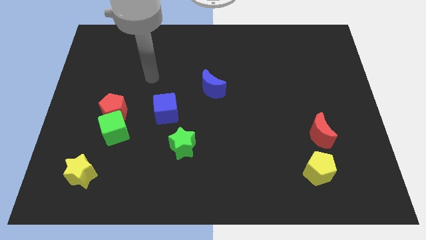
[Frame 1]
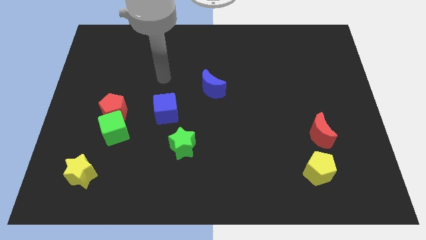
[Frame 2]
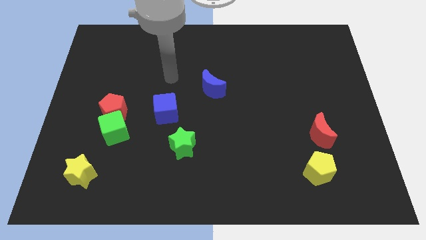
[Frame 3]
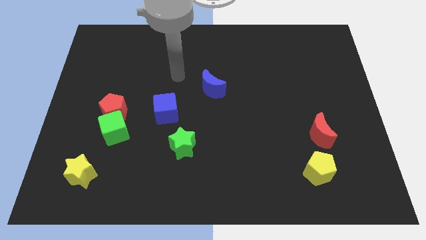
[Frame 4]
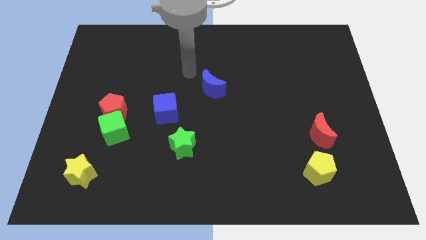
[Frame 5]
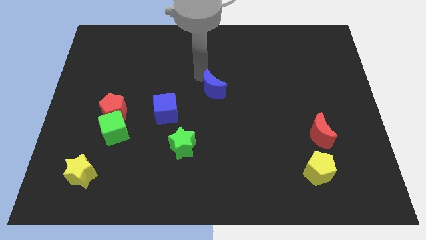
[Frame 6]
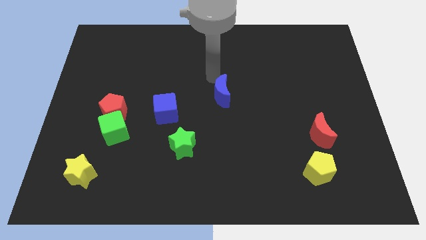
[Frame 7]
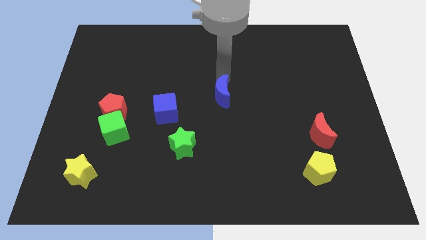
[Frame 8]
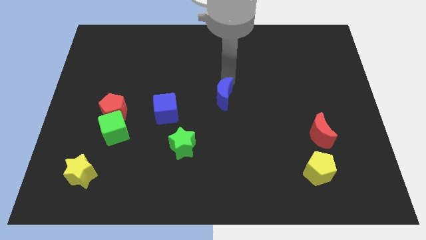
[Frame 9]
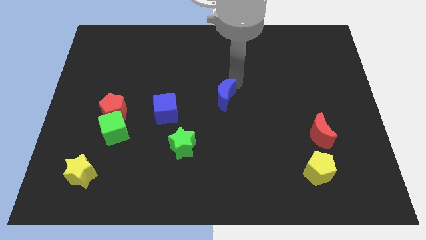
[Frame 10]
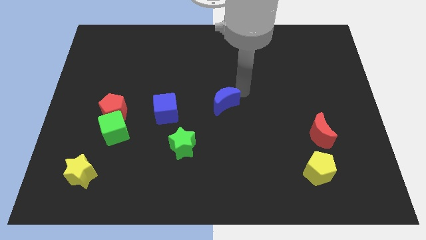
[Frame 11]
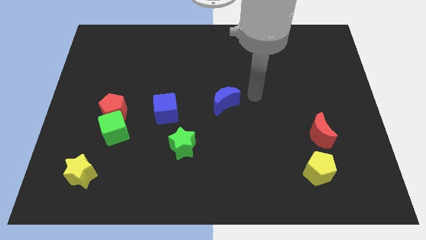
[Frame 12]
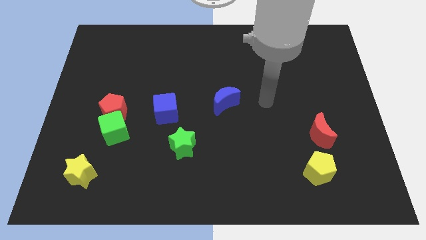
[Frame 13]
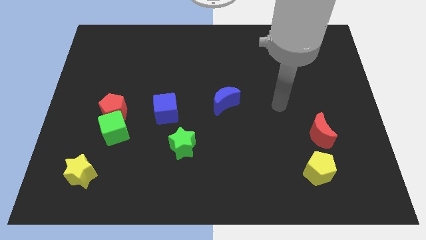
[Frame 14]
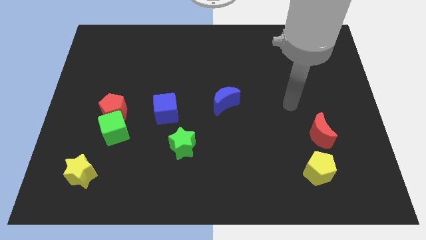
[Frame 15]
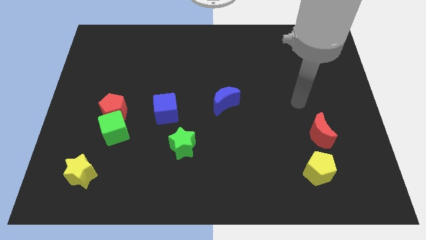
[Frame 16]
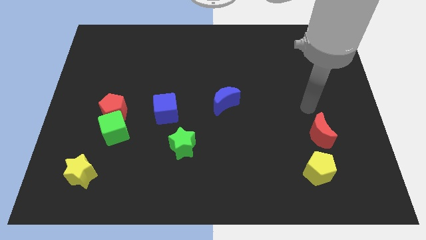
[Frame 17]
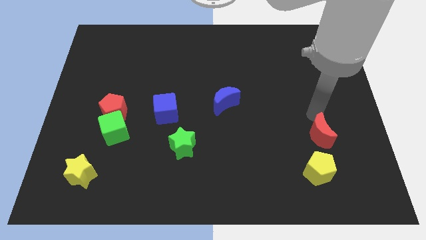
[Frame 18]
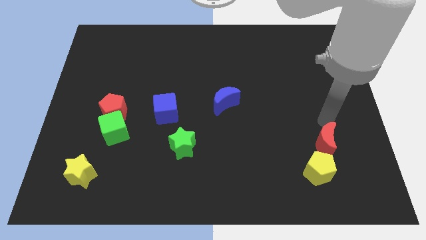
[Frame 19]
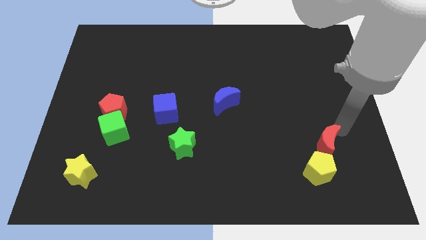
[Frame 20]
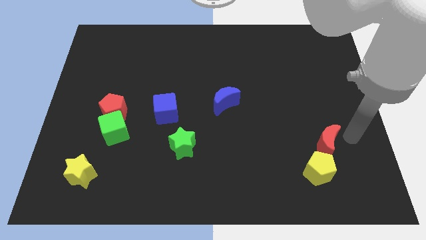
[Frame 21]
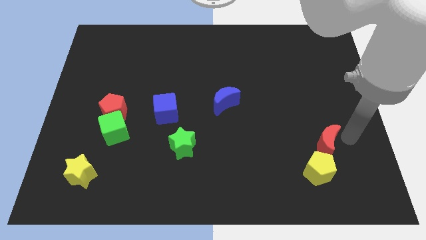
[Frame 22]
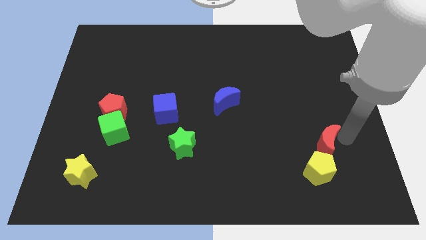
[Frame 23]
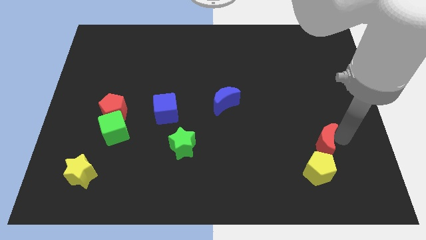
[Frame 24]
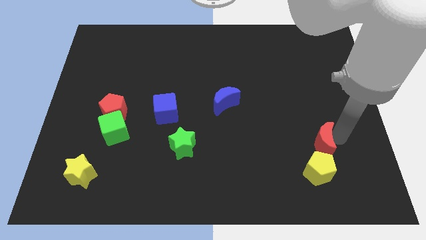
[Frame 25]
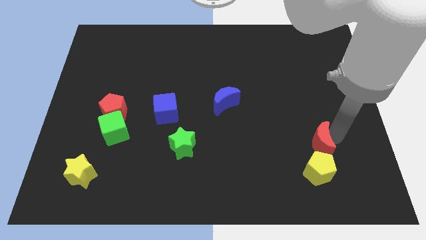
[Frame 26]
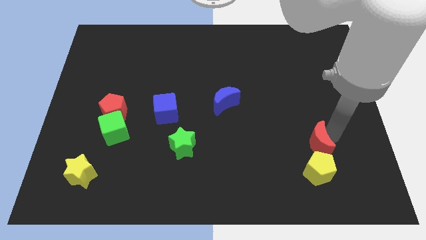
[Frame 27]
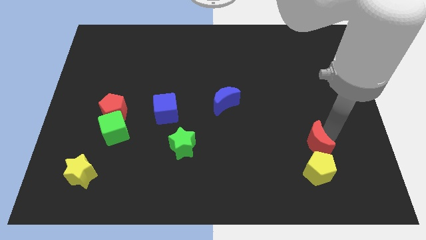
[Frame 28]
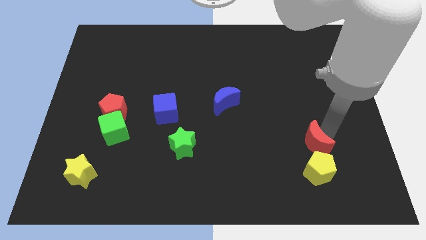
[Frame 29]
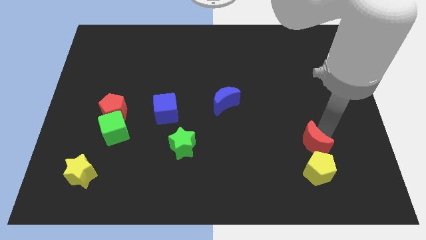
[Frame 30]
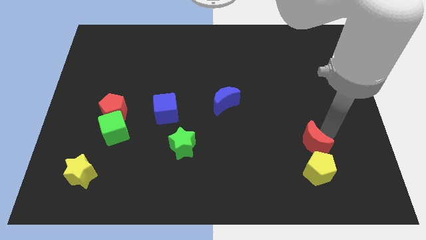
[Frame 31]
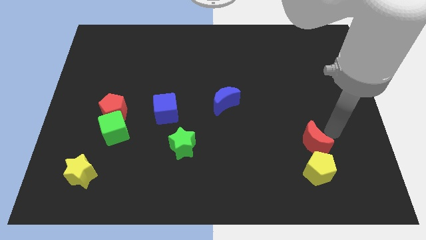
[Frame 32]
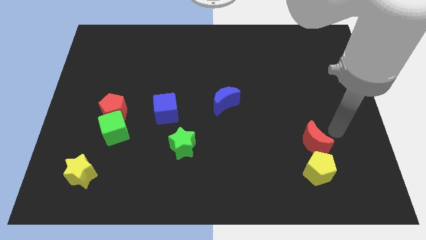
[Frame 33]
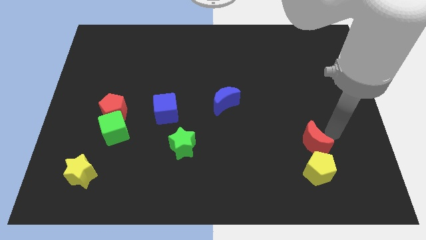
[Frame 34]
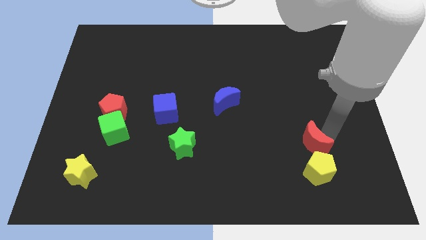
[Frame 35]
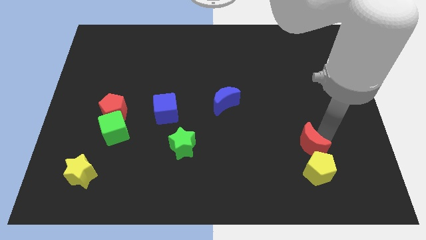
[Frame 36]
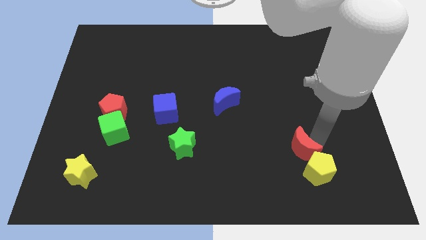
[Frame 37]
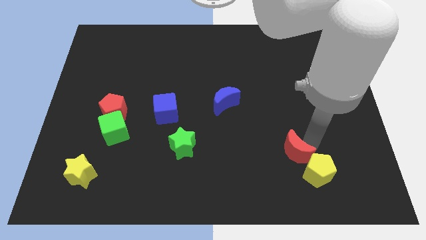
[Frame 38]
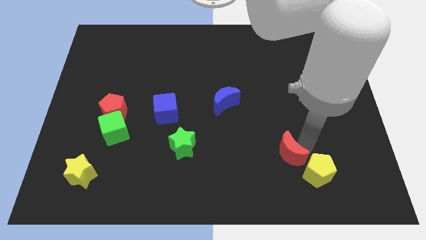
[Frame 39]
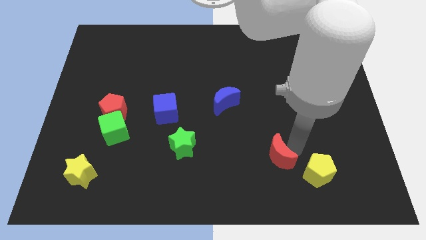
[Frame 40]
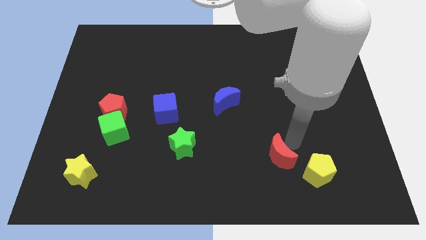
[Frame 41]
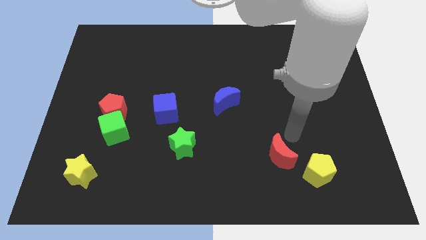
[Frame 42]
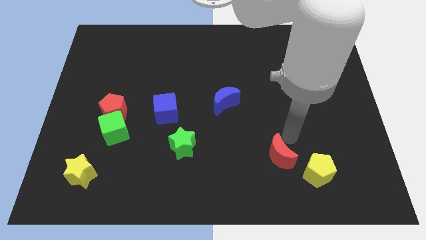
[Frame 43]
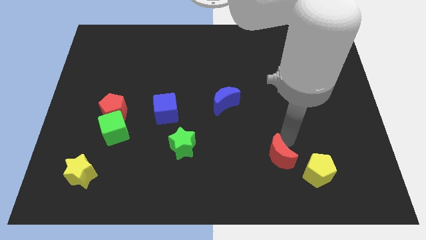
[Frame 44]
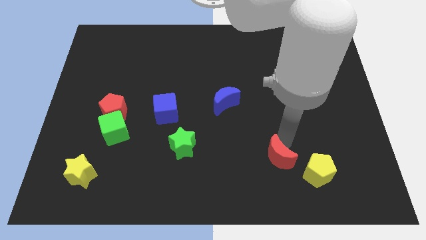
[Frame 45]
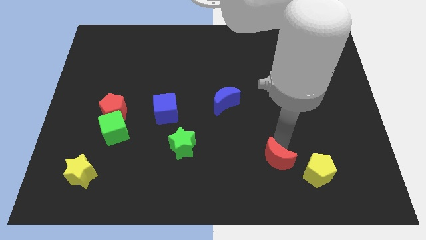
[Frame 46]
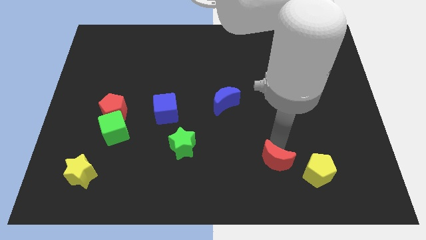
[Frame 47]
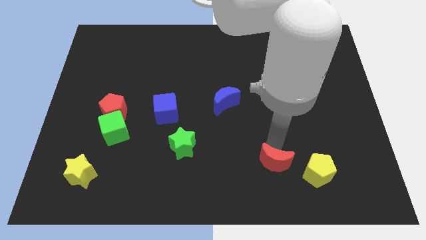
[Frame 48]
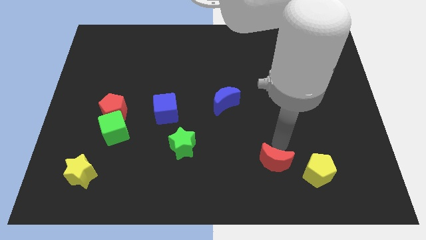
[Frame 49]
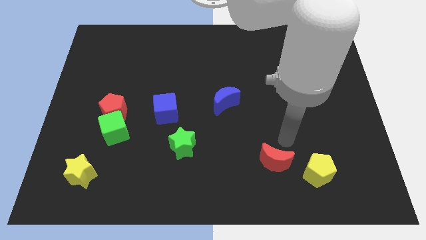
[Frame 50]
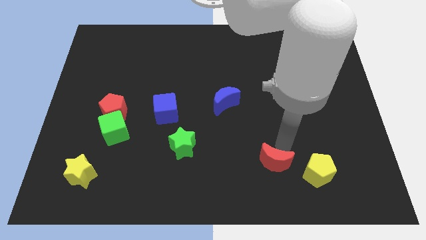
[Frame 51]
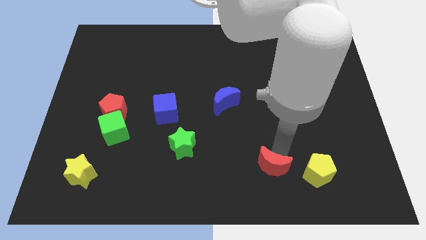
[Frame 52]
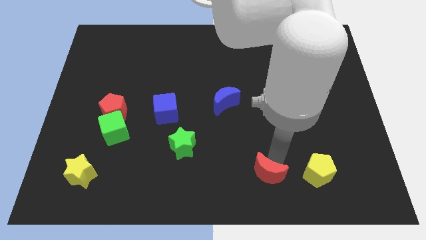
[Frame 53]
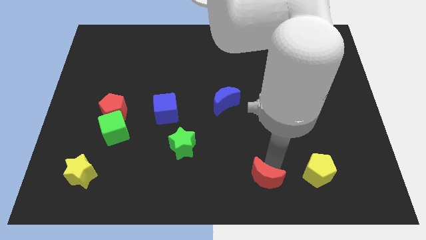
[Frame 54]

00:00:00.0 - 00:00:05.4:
move the red moon to the bottom side
